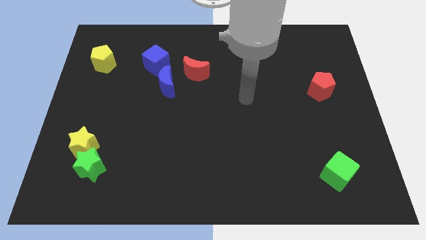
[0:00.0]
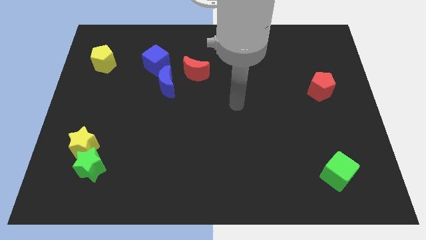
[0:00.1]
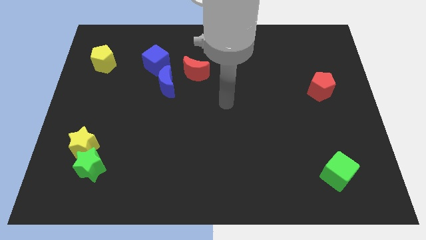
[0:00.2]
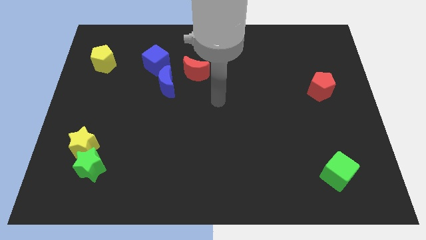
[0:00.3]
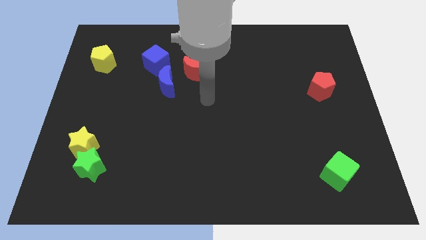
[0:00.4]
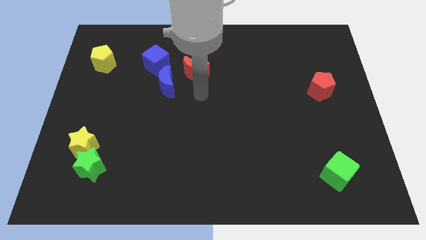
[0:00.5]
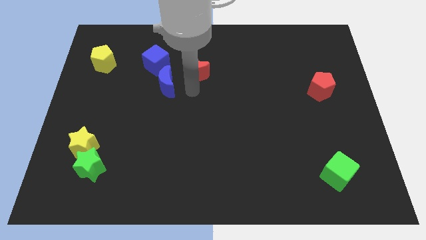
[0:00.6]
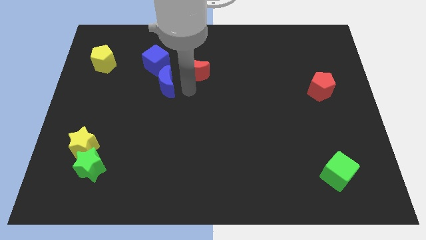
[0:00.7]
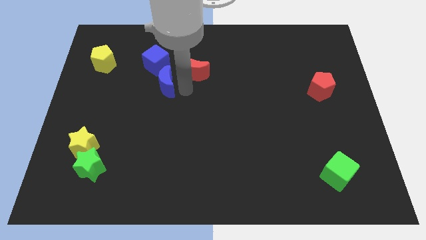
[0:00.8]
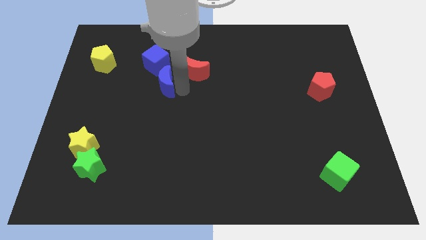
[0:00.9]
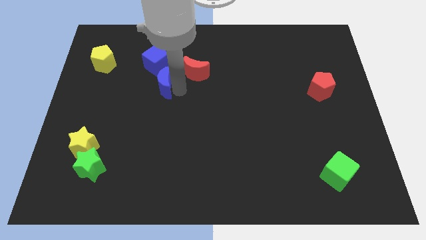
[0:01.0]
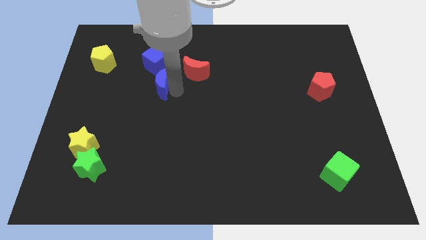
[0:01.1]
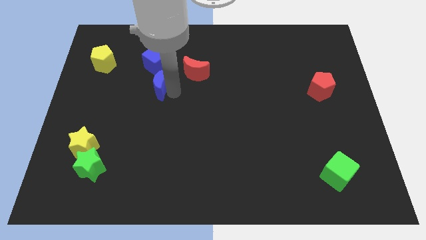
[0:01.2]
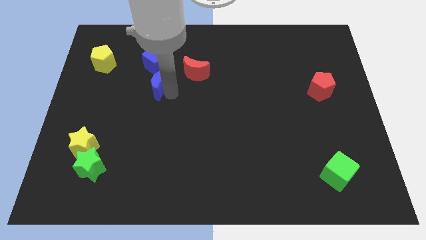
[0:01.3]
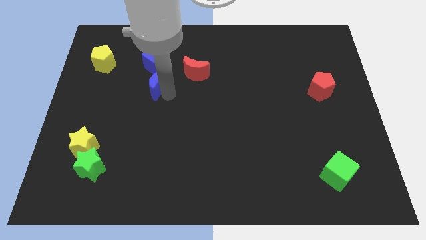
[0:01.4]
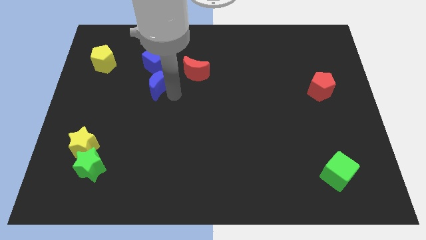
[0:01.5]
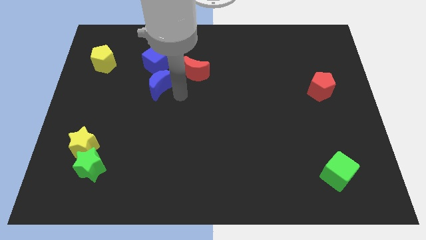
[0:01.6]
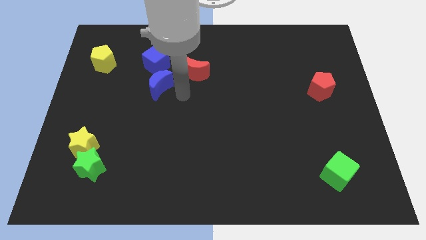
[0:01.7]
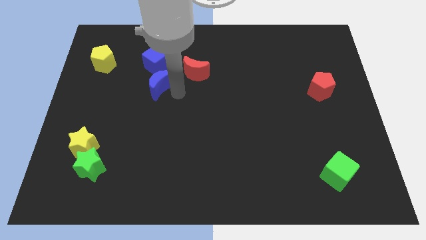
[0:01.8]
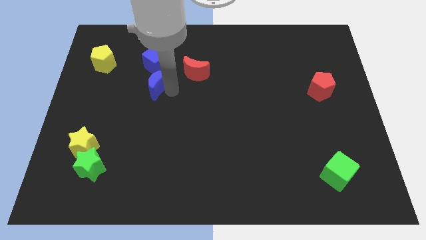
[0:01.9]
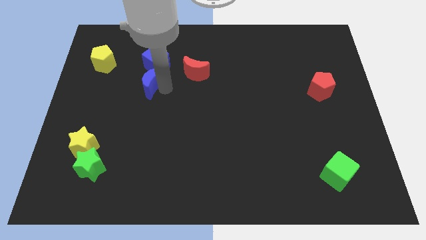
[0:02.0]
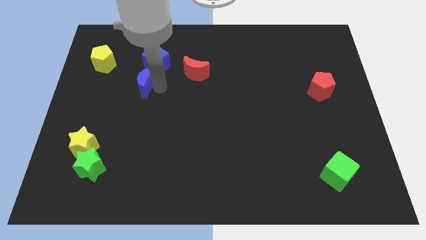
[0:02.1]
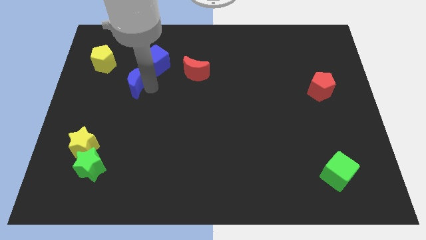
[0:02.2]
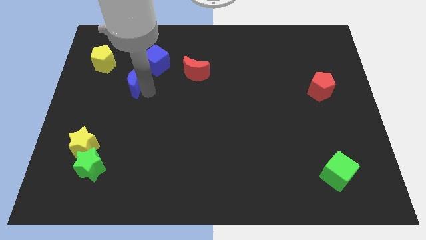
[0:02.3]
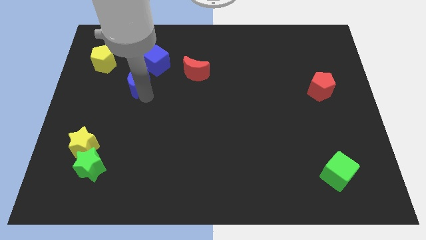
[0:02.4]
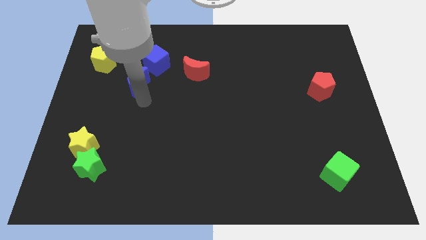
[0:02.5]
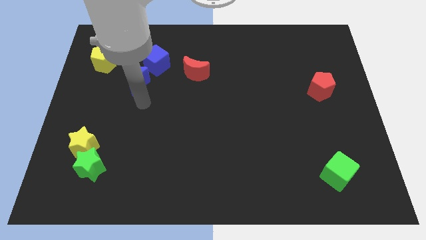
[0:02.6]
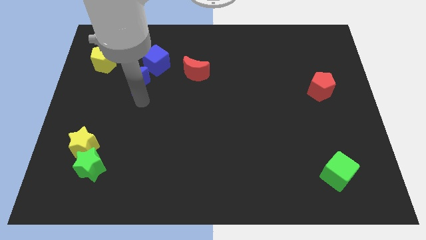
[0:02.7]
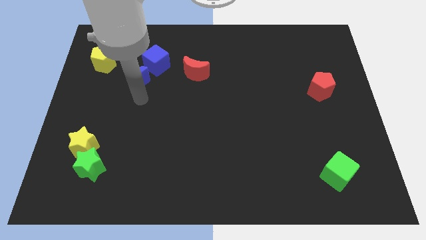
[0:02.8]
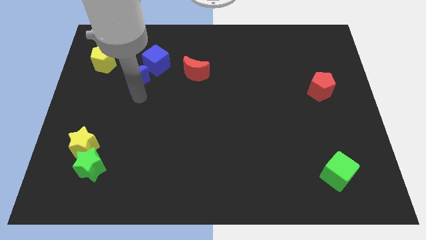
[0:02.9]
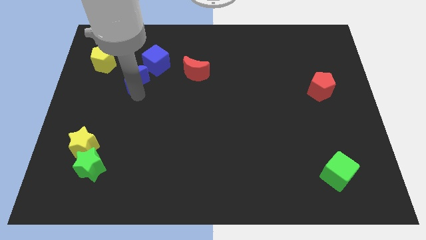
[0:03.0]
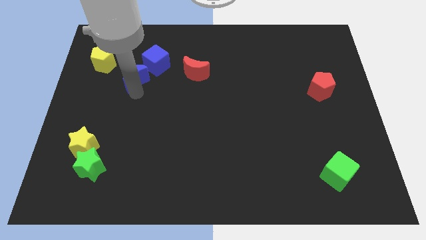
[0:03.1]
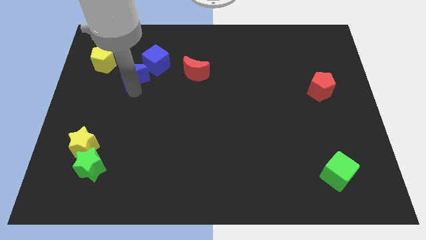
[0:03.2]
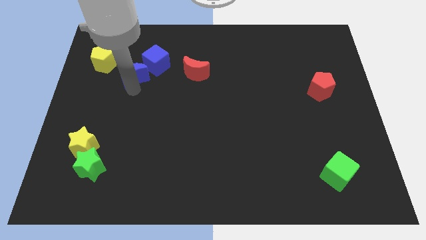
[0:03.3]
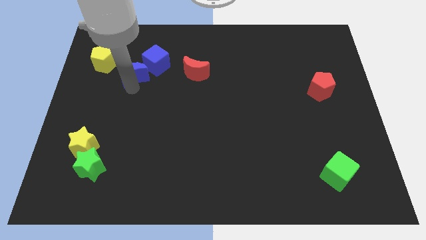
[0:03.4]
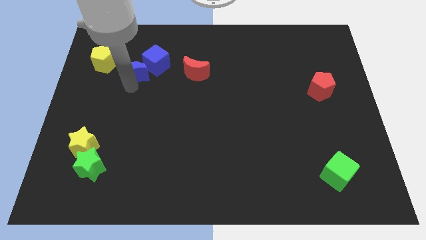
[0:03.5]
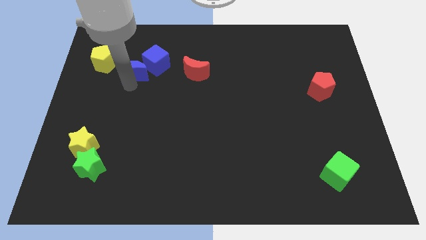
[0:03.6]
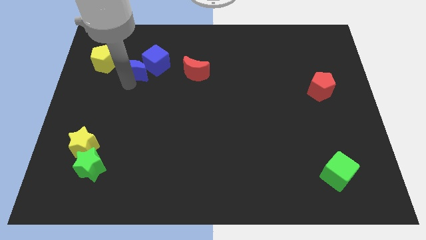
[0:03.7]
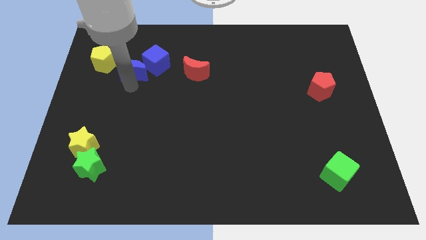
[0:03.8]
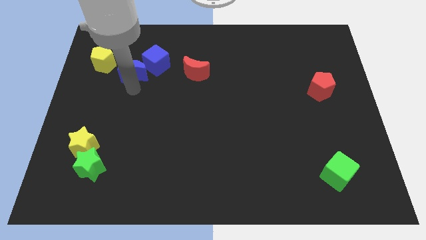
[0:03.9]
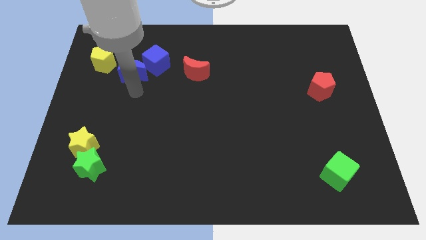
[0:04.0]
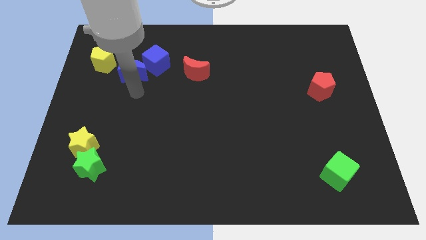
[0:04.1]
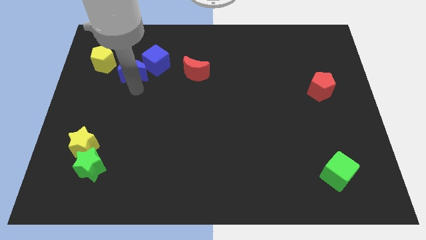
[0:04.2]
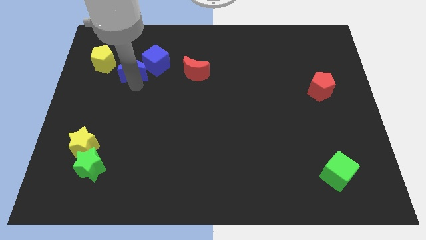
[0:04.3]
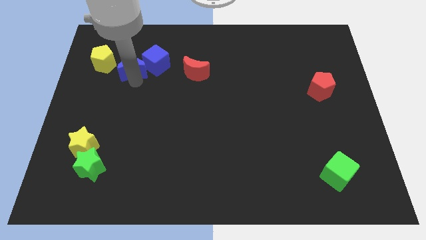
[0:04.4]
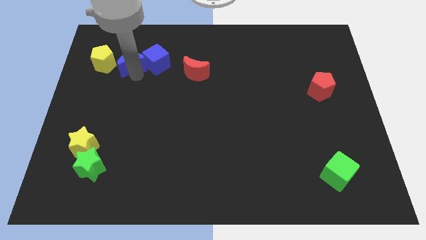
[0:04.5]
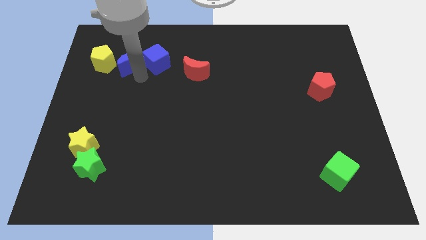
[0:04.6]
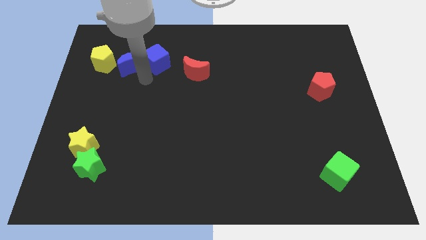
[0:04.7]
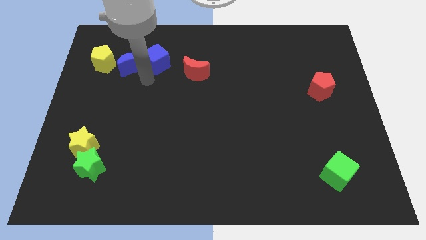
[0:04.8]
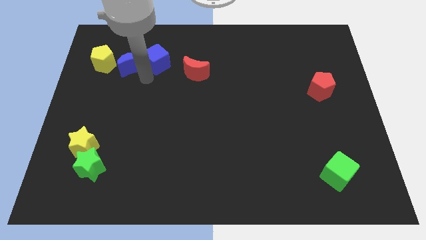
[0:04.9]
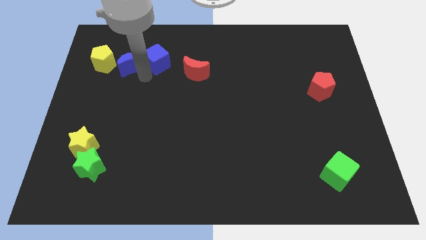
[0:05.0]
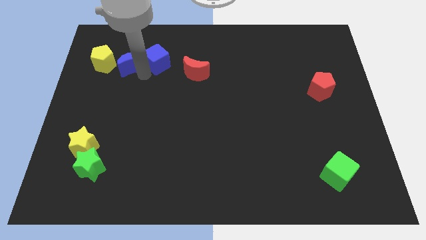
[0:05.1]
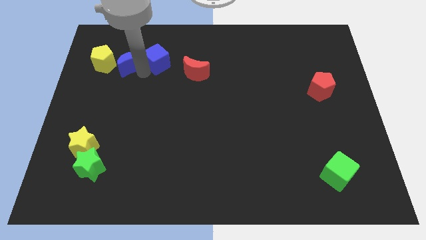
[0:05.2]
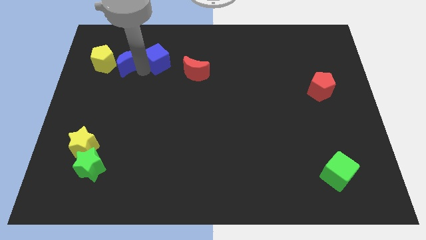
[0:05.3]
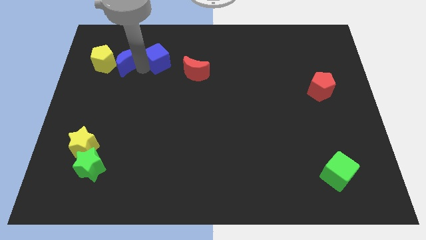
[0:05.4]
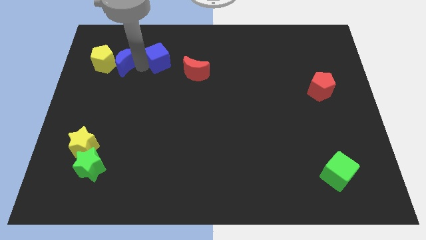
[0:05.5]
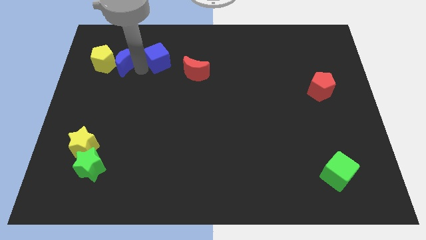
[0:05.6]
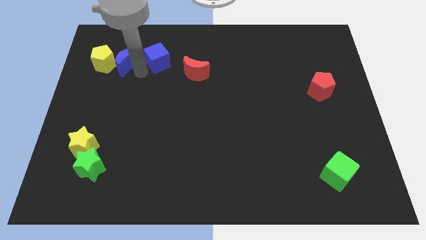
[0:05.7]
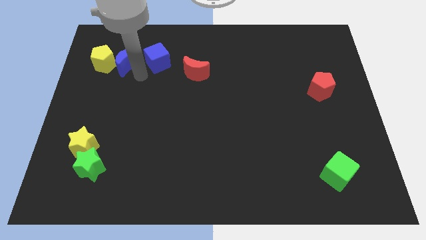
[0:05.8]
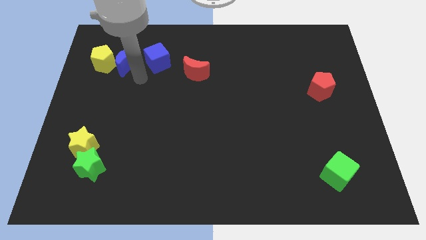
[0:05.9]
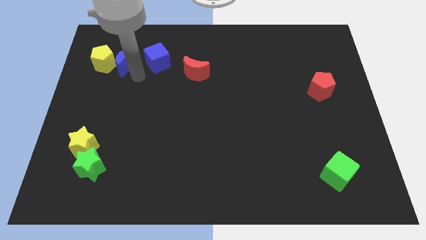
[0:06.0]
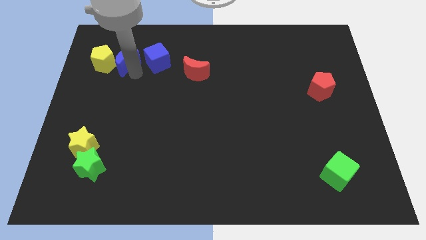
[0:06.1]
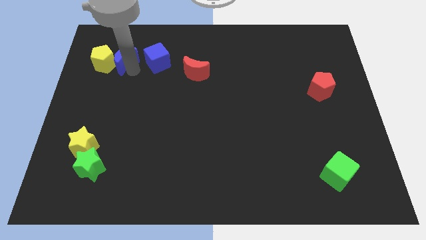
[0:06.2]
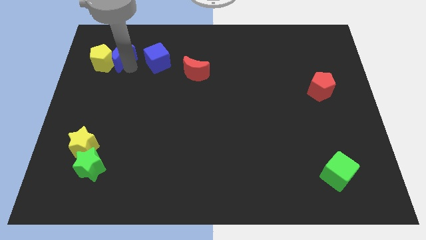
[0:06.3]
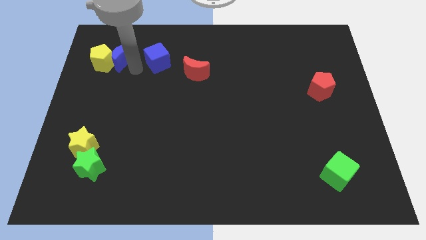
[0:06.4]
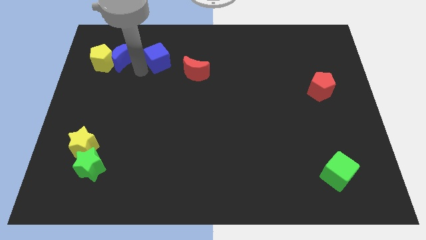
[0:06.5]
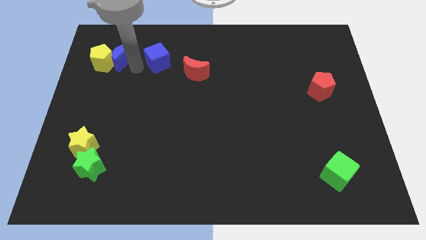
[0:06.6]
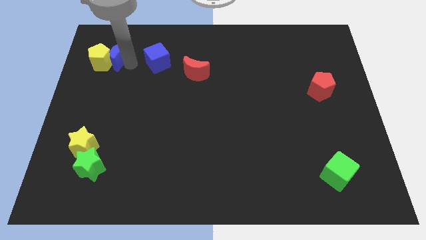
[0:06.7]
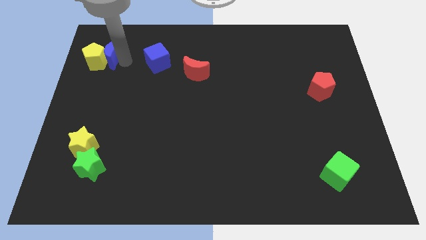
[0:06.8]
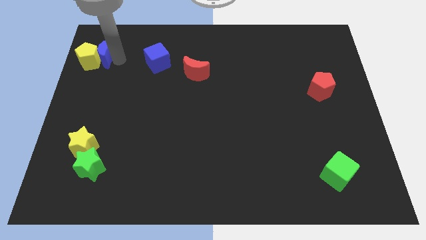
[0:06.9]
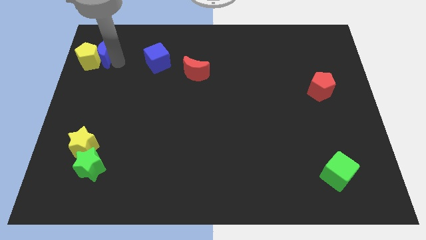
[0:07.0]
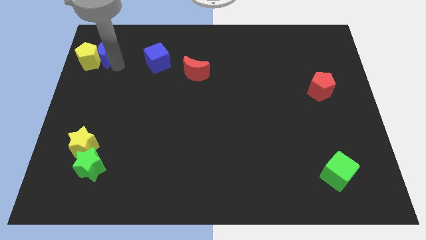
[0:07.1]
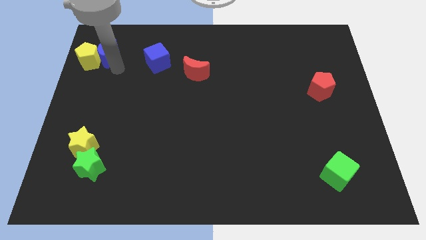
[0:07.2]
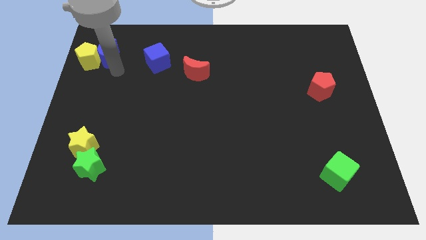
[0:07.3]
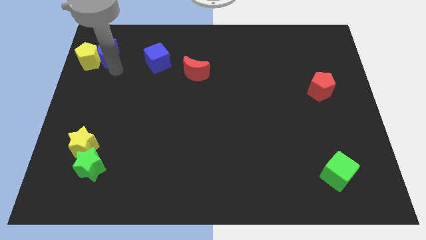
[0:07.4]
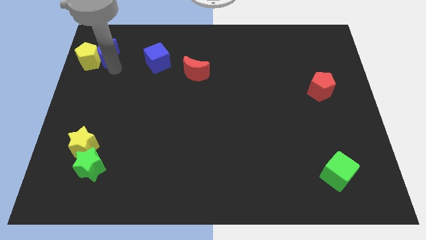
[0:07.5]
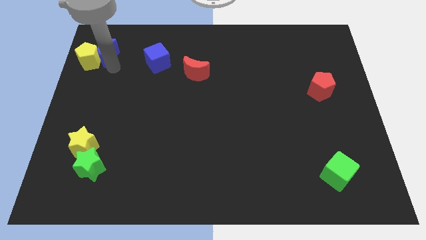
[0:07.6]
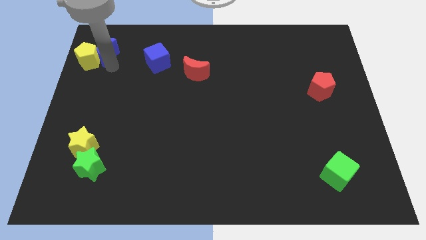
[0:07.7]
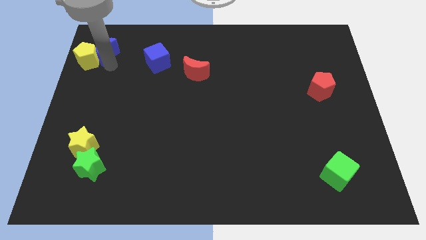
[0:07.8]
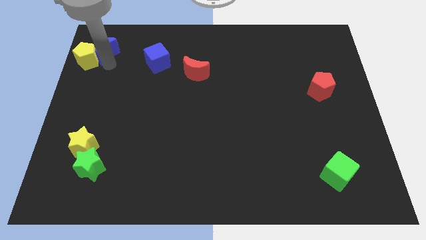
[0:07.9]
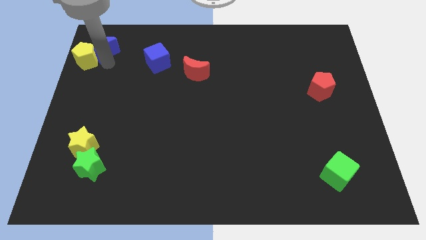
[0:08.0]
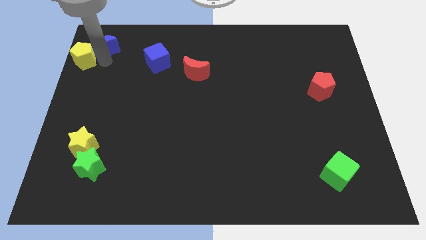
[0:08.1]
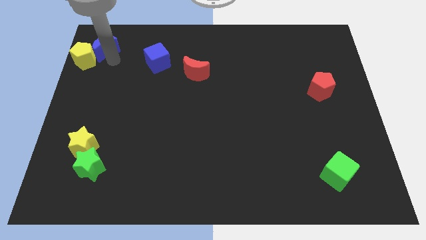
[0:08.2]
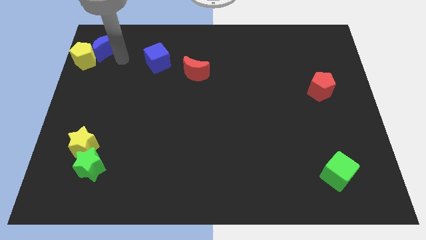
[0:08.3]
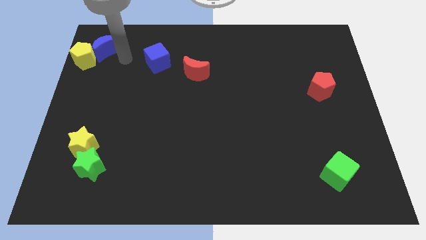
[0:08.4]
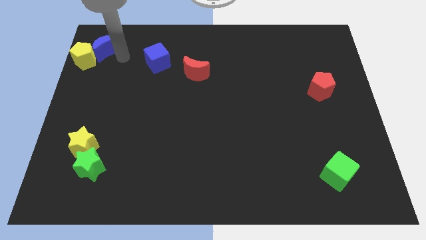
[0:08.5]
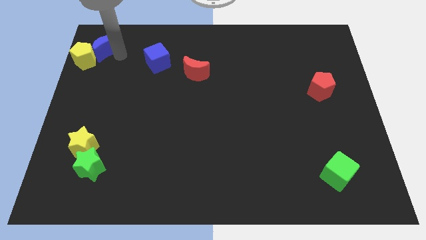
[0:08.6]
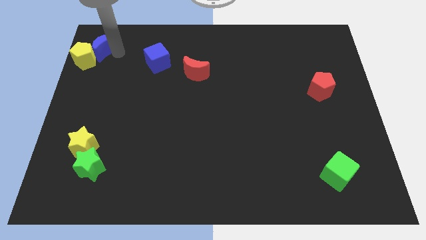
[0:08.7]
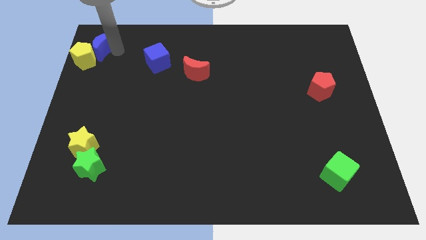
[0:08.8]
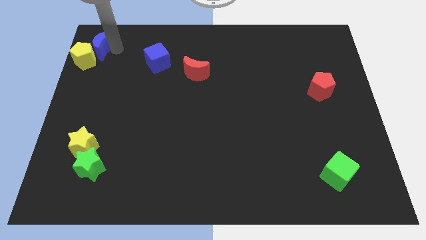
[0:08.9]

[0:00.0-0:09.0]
put the blue moon to the top left of the board

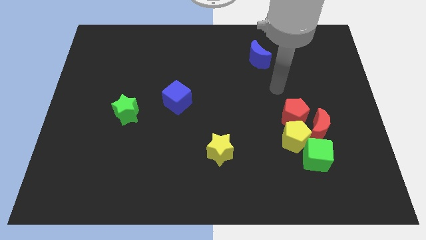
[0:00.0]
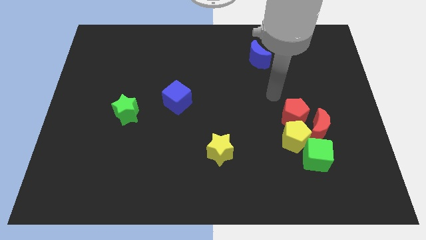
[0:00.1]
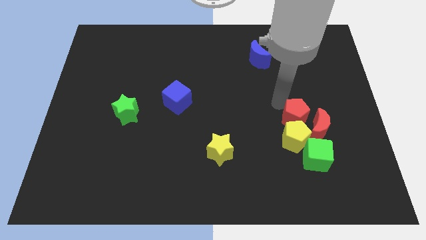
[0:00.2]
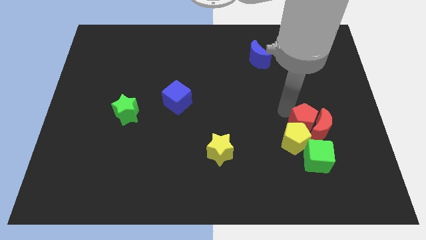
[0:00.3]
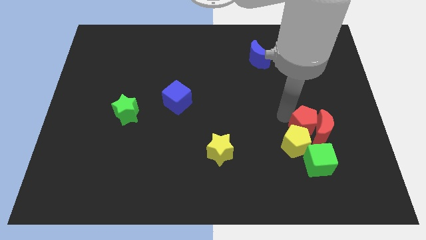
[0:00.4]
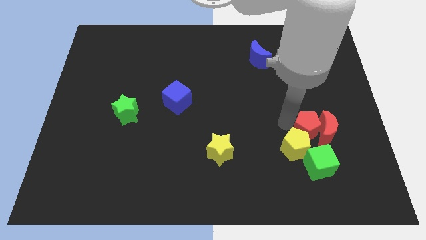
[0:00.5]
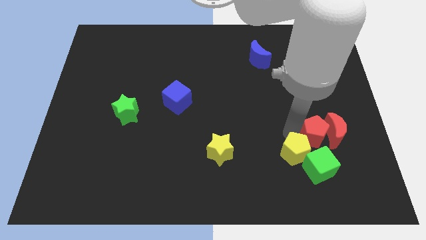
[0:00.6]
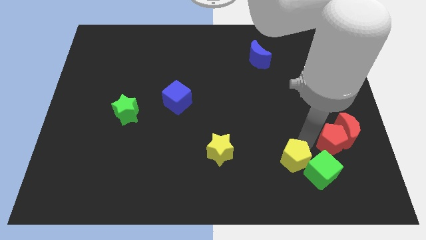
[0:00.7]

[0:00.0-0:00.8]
move the red moon to the center right
